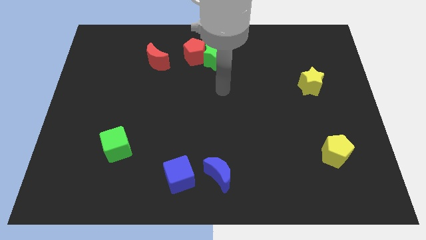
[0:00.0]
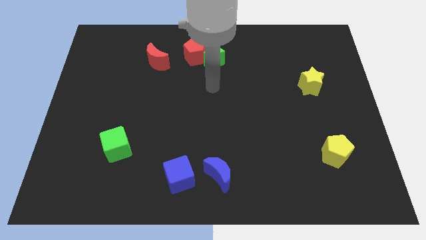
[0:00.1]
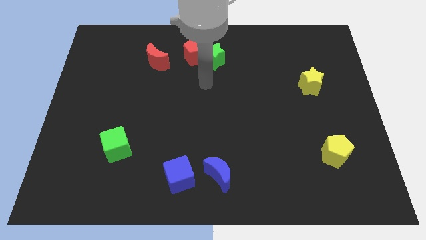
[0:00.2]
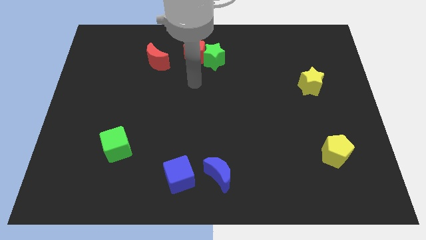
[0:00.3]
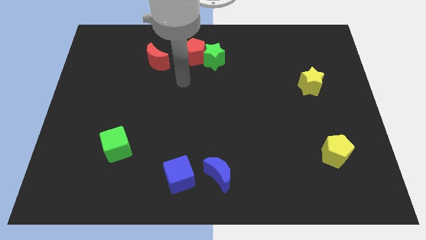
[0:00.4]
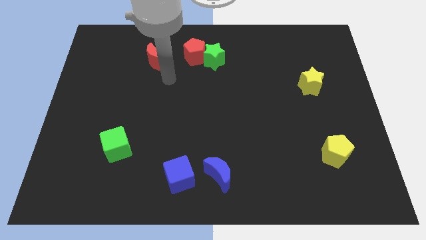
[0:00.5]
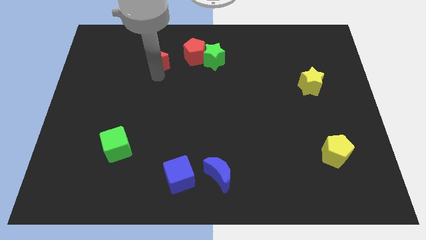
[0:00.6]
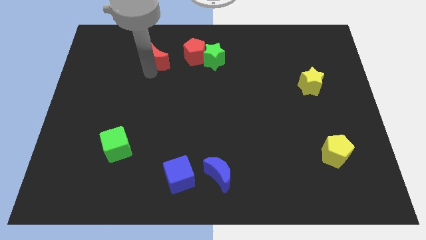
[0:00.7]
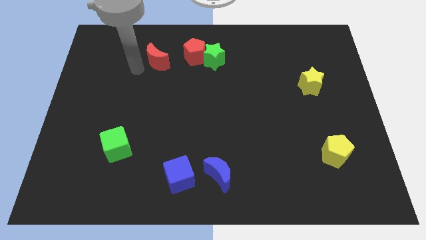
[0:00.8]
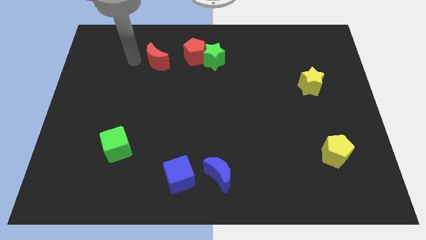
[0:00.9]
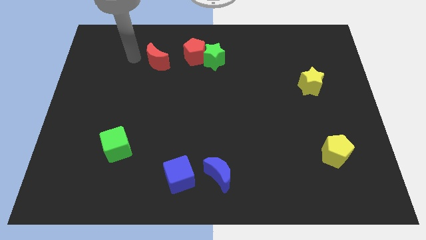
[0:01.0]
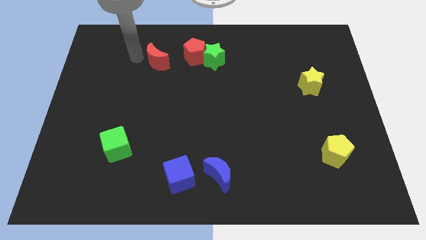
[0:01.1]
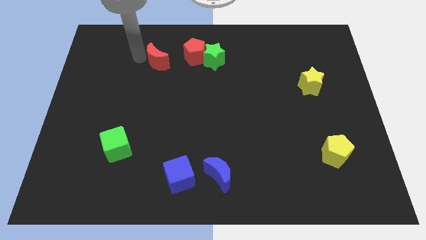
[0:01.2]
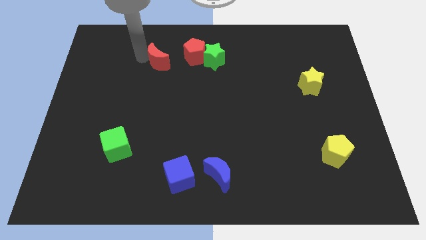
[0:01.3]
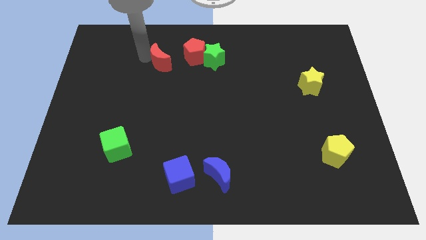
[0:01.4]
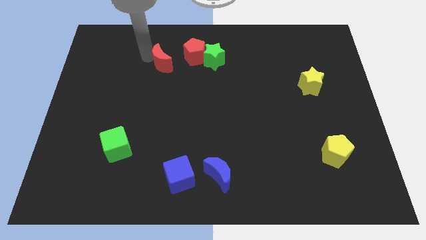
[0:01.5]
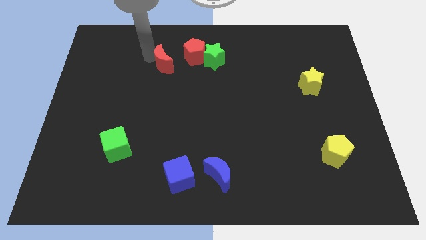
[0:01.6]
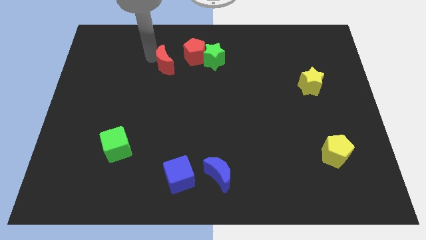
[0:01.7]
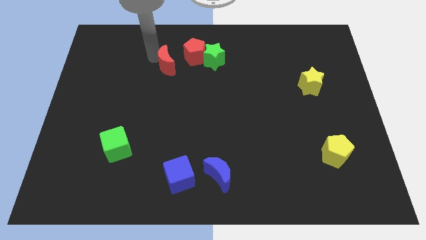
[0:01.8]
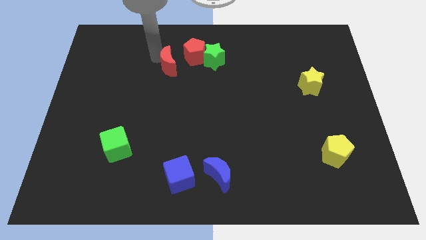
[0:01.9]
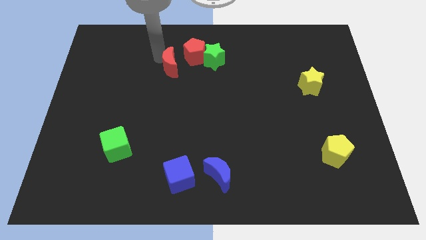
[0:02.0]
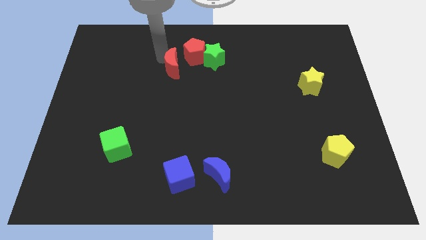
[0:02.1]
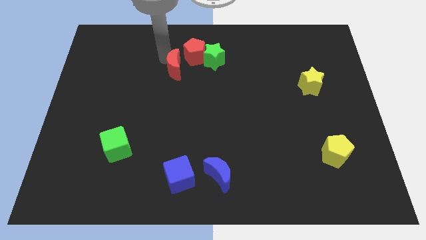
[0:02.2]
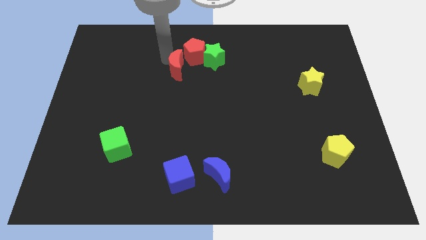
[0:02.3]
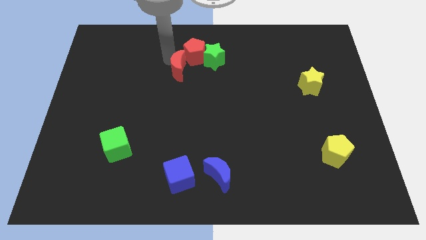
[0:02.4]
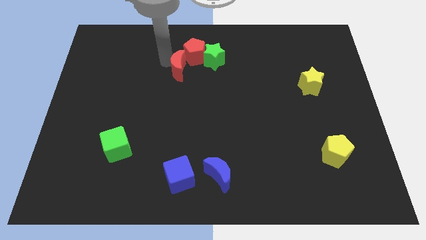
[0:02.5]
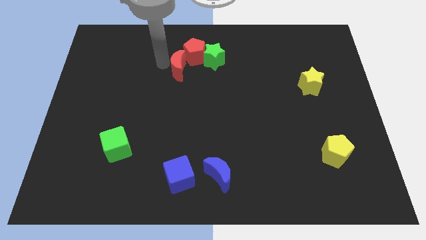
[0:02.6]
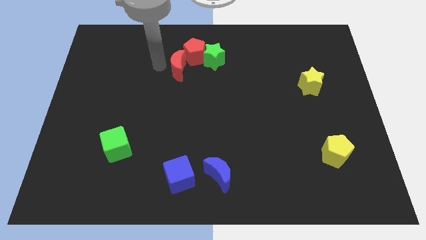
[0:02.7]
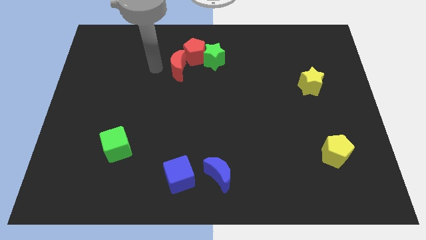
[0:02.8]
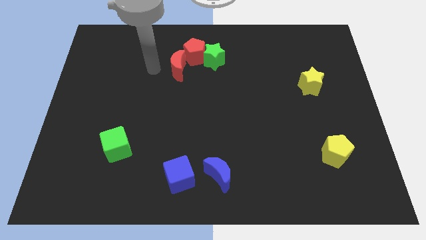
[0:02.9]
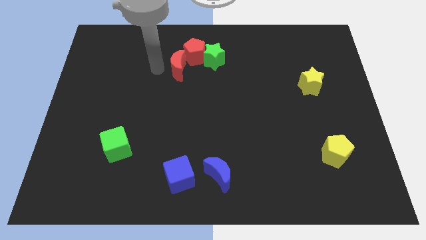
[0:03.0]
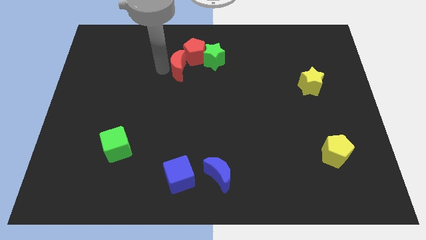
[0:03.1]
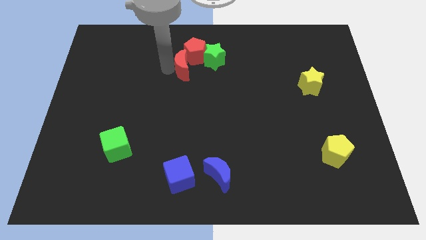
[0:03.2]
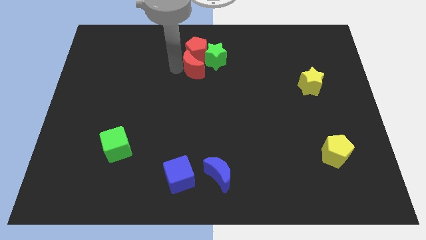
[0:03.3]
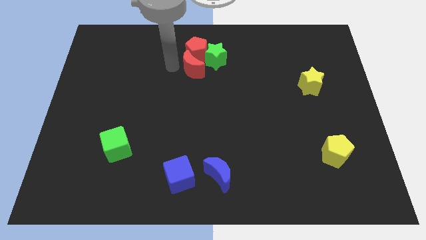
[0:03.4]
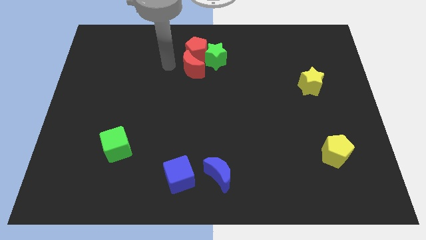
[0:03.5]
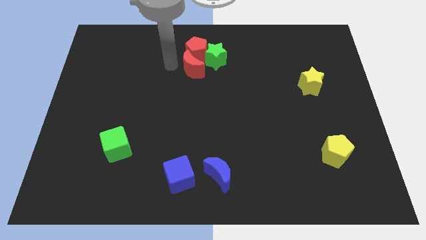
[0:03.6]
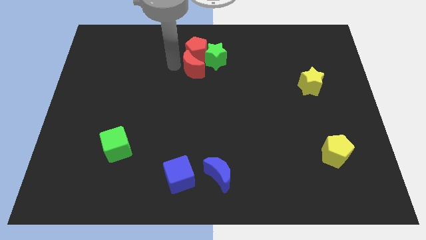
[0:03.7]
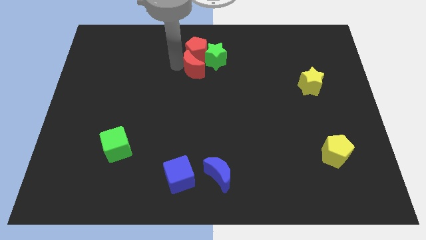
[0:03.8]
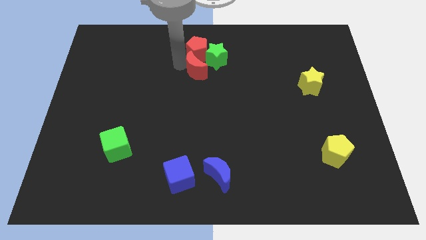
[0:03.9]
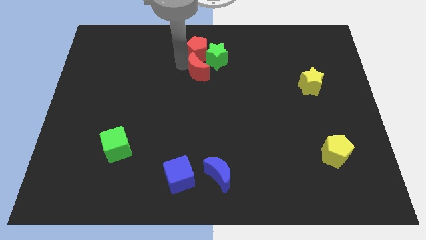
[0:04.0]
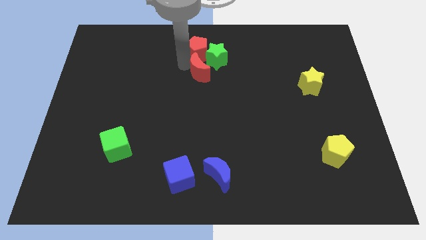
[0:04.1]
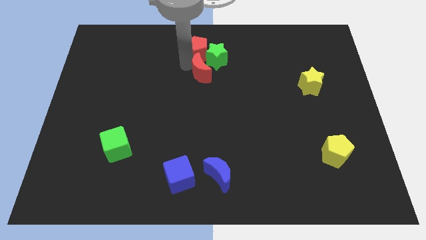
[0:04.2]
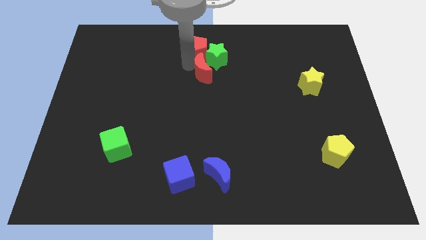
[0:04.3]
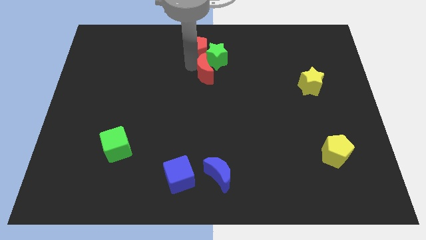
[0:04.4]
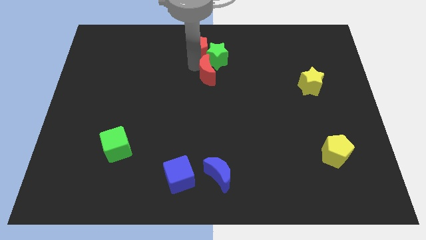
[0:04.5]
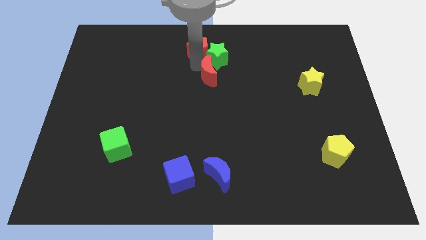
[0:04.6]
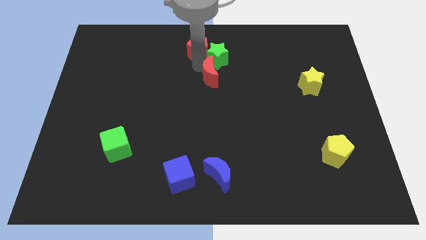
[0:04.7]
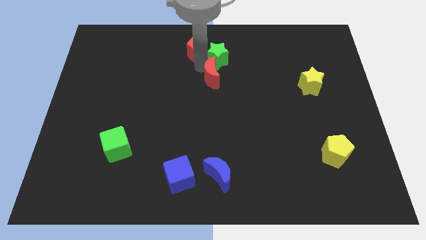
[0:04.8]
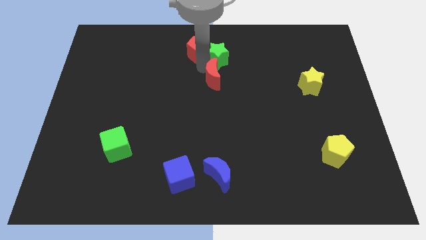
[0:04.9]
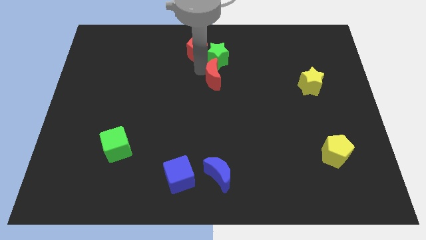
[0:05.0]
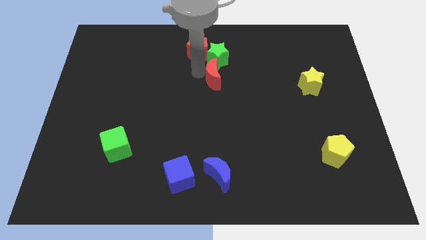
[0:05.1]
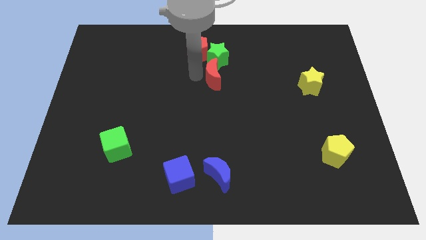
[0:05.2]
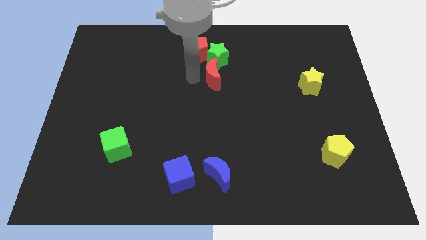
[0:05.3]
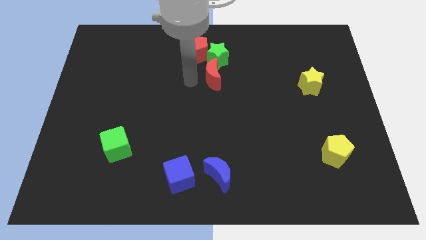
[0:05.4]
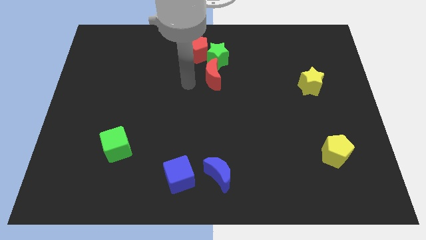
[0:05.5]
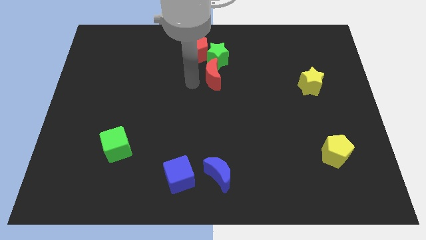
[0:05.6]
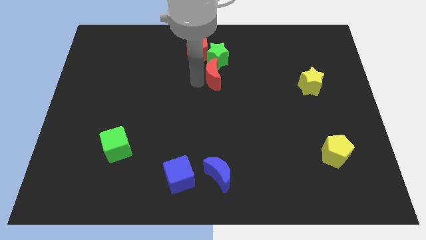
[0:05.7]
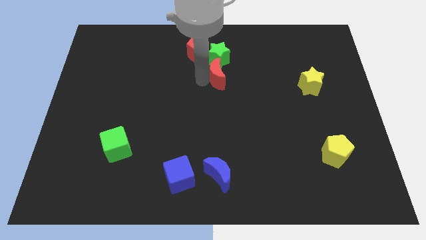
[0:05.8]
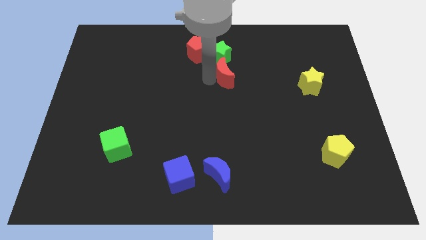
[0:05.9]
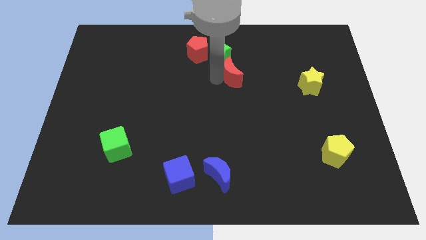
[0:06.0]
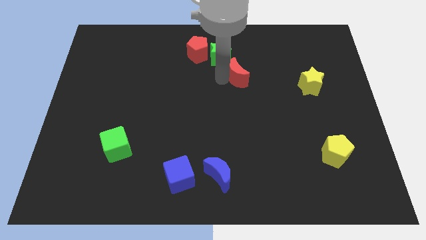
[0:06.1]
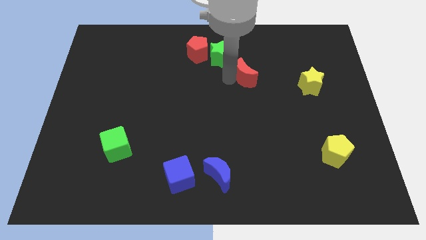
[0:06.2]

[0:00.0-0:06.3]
slide the red moon right

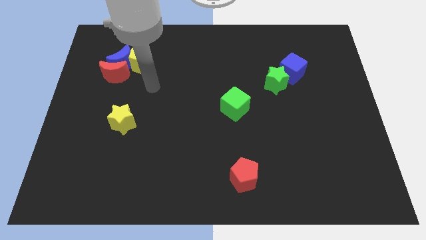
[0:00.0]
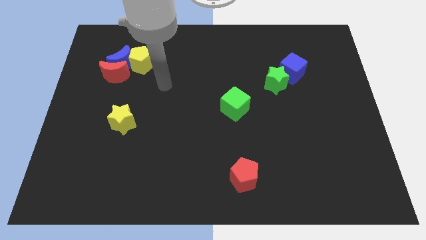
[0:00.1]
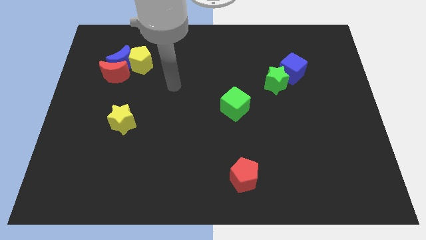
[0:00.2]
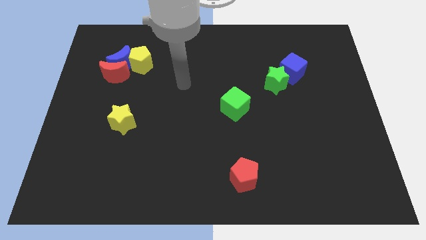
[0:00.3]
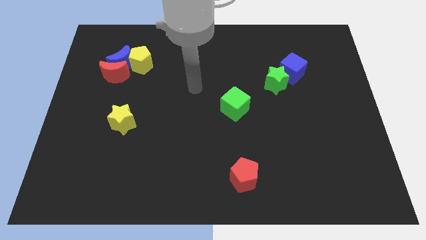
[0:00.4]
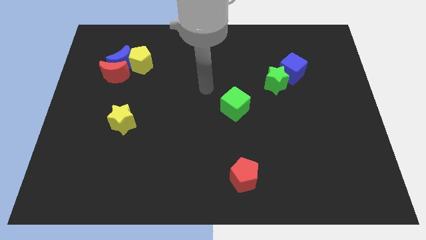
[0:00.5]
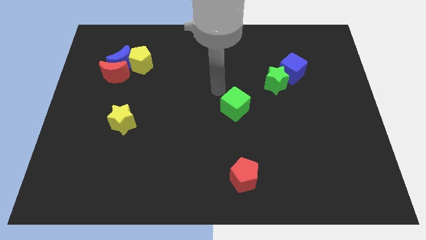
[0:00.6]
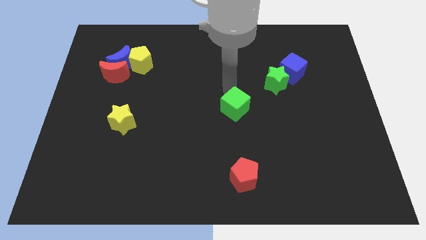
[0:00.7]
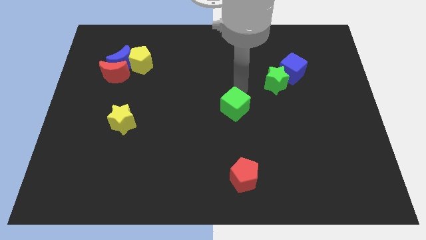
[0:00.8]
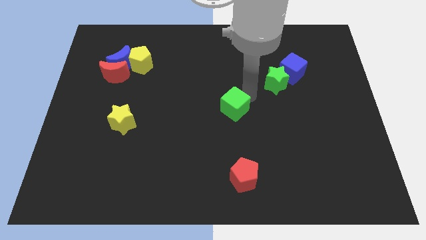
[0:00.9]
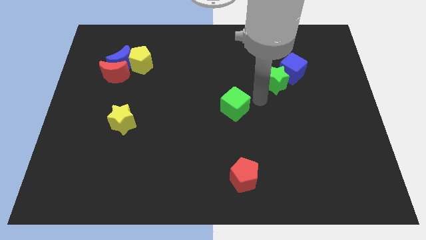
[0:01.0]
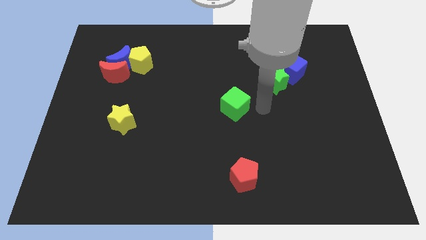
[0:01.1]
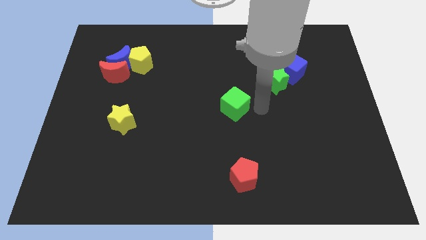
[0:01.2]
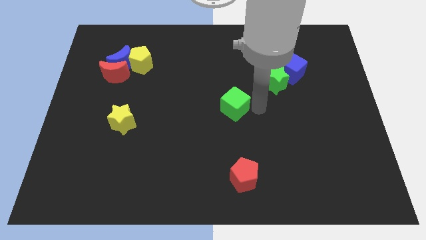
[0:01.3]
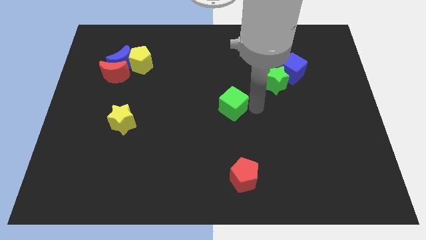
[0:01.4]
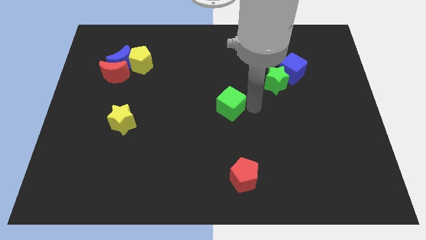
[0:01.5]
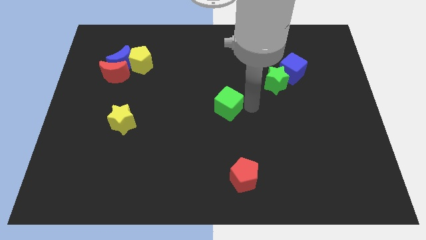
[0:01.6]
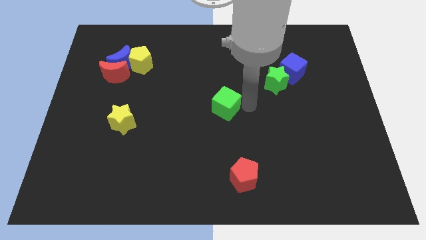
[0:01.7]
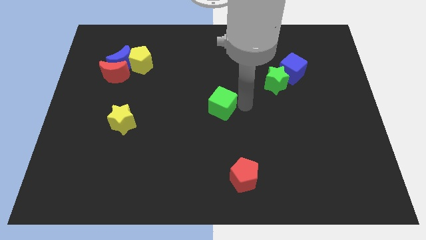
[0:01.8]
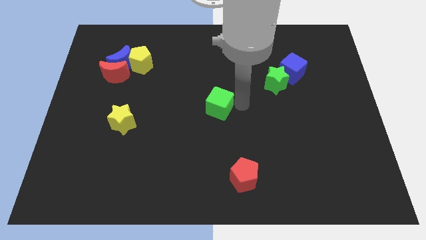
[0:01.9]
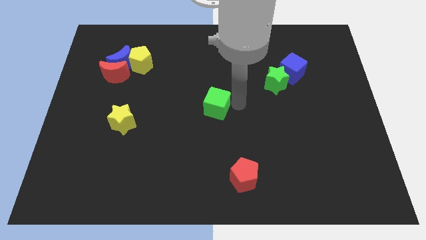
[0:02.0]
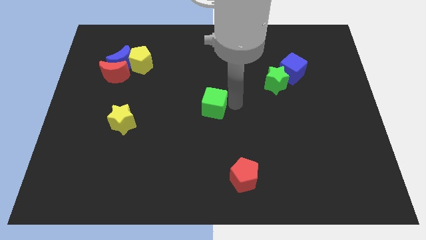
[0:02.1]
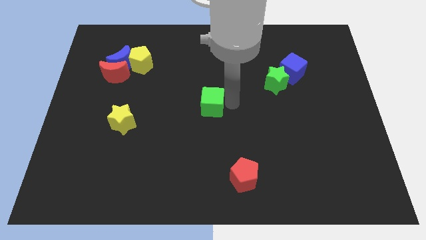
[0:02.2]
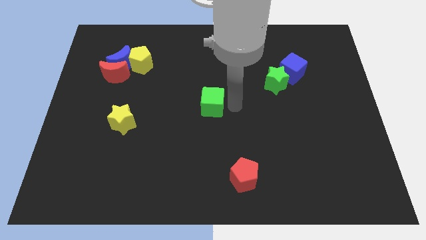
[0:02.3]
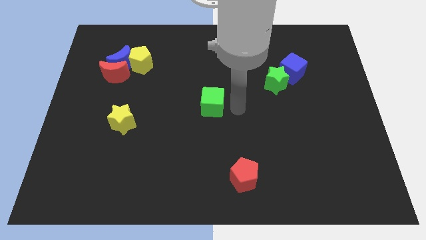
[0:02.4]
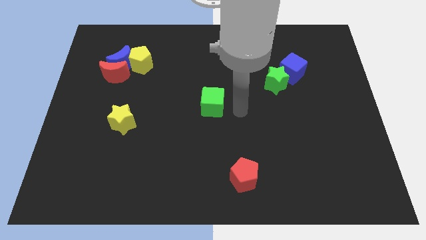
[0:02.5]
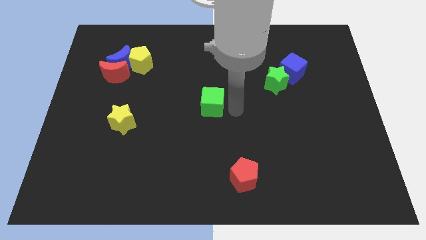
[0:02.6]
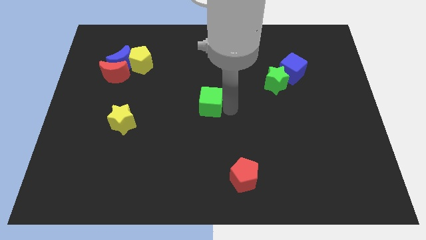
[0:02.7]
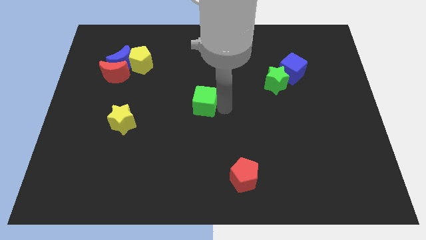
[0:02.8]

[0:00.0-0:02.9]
move the green cube somewhat to the left
